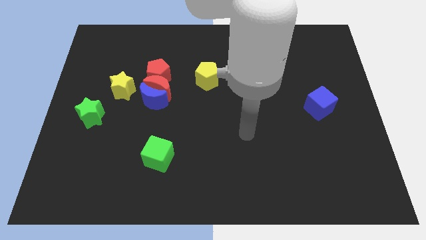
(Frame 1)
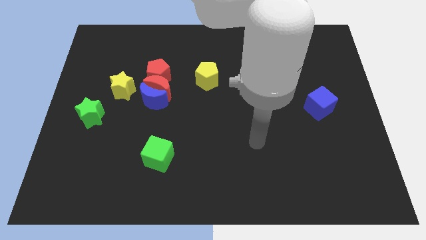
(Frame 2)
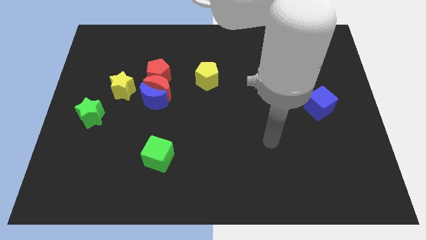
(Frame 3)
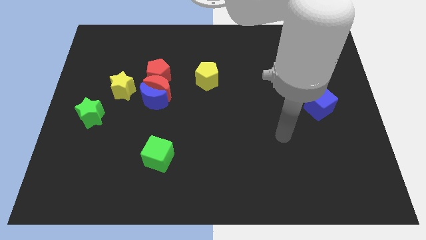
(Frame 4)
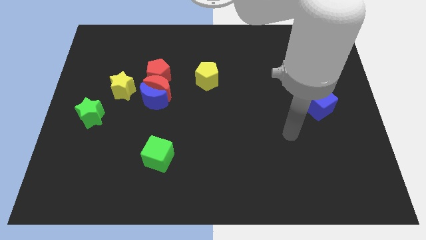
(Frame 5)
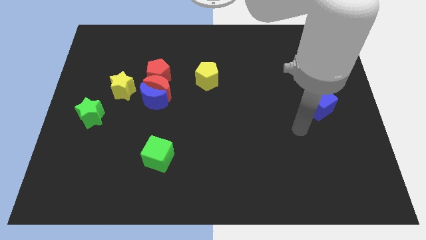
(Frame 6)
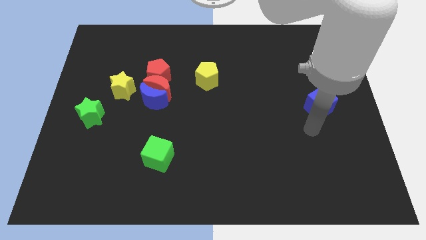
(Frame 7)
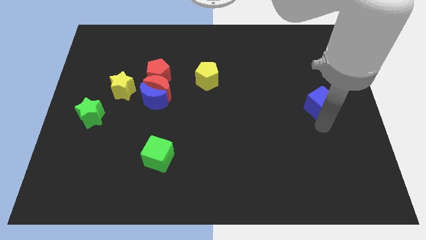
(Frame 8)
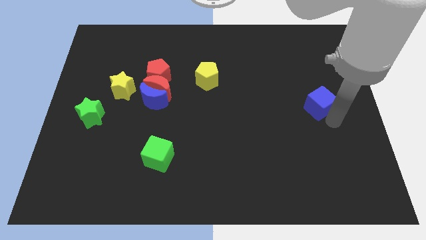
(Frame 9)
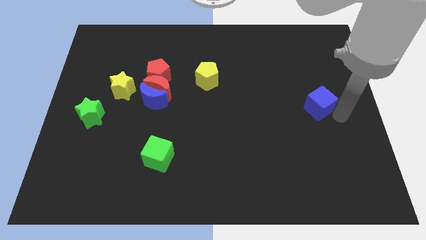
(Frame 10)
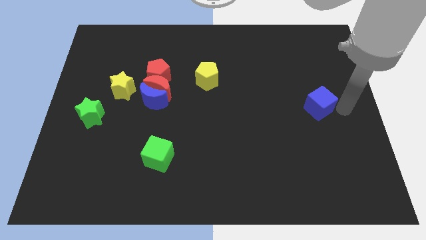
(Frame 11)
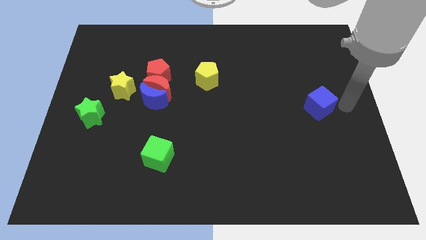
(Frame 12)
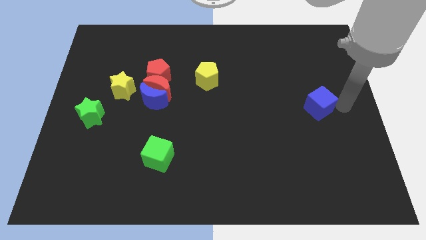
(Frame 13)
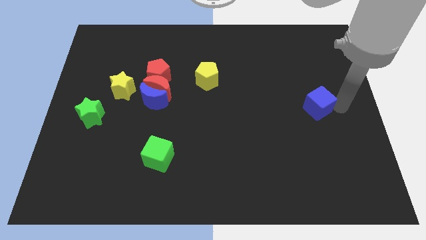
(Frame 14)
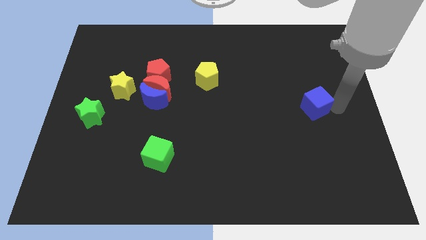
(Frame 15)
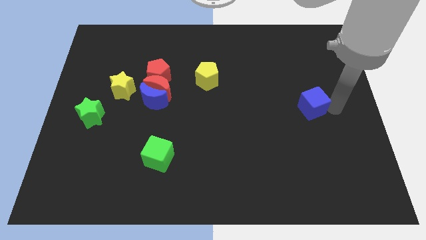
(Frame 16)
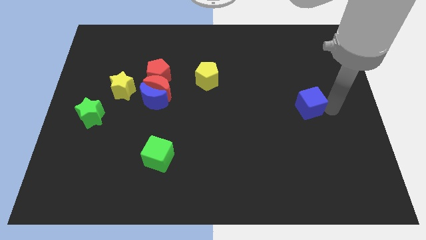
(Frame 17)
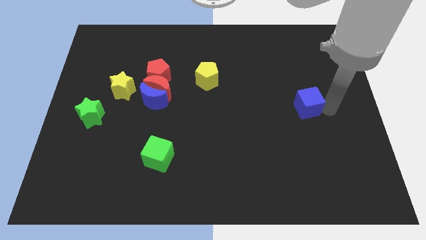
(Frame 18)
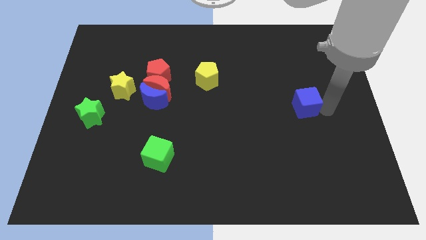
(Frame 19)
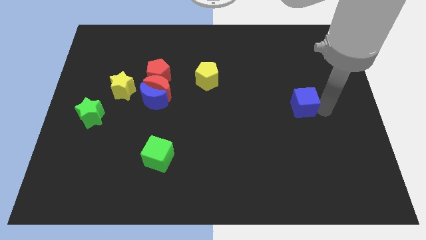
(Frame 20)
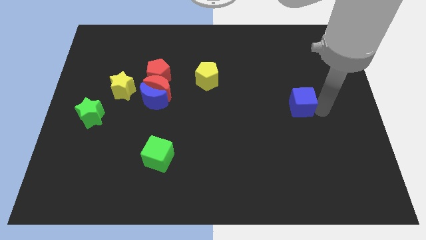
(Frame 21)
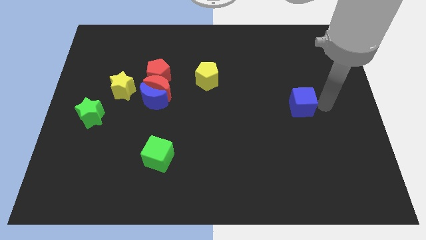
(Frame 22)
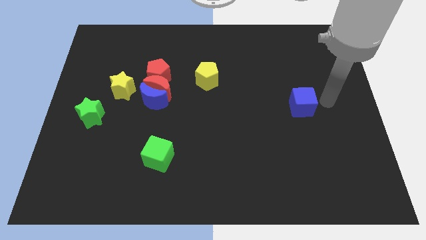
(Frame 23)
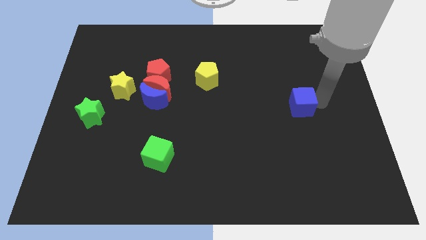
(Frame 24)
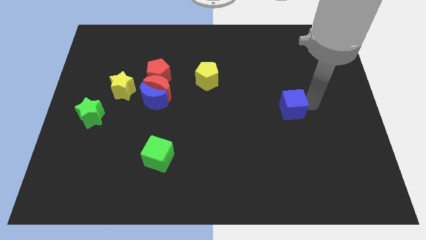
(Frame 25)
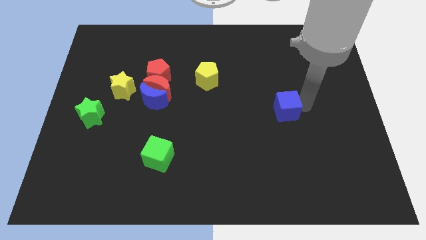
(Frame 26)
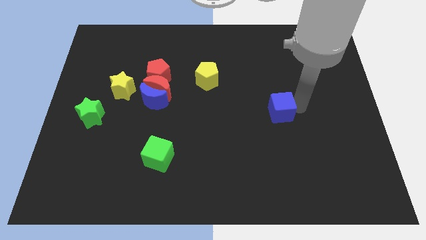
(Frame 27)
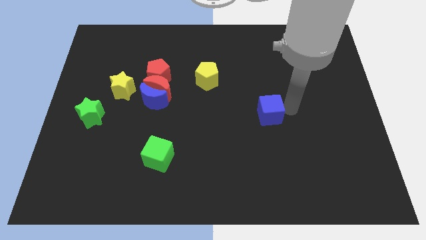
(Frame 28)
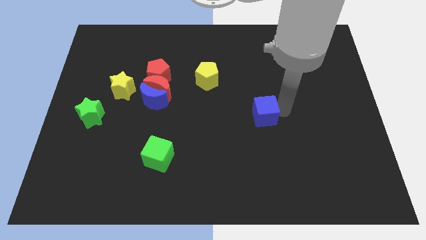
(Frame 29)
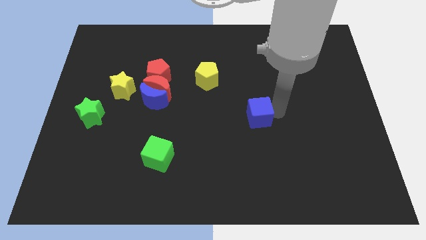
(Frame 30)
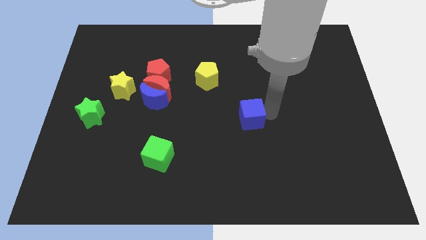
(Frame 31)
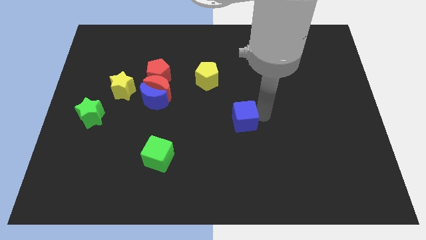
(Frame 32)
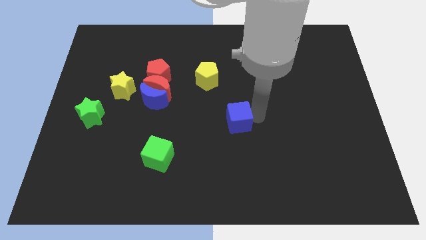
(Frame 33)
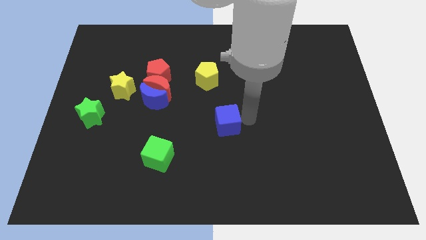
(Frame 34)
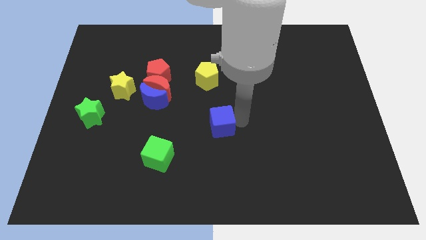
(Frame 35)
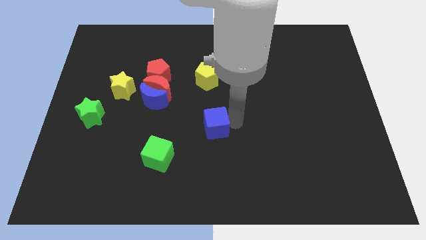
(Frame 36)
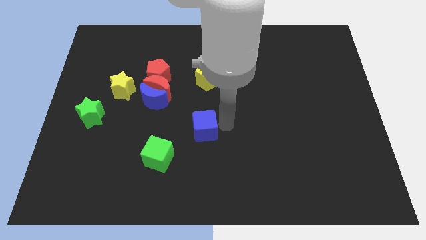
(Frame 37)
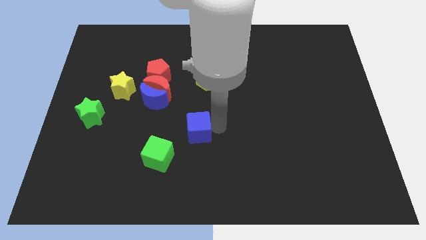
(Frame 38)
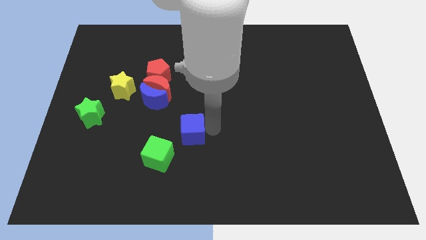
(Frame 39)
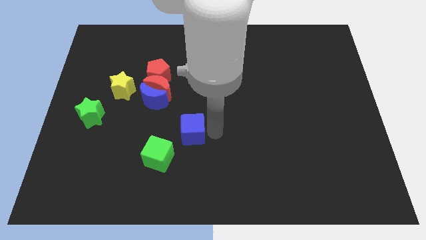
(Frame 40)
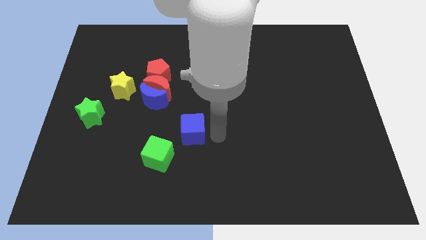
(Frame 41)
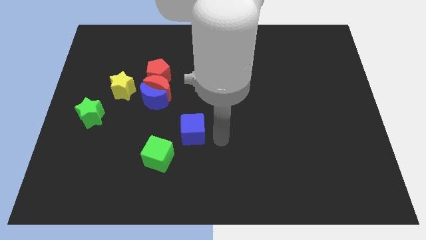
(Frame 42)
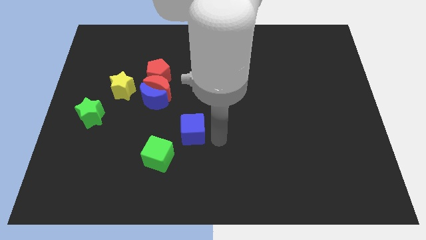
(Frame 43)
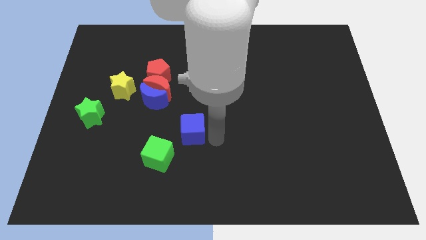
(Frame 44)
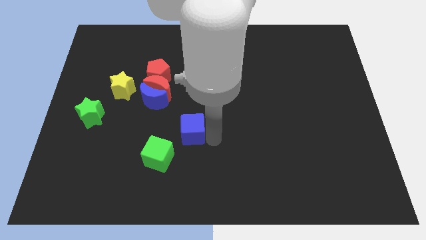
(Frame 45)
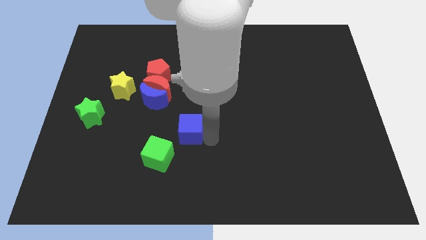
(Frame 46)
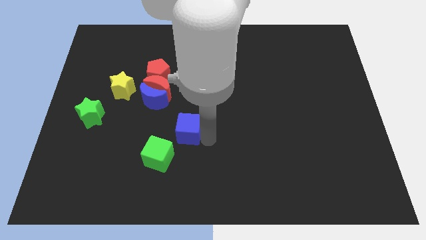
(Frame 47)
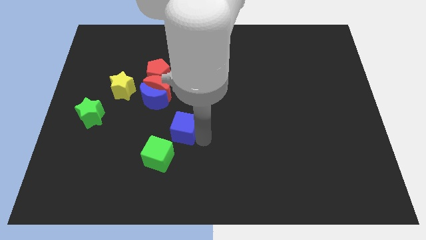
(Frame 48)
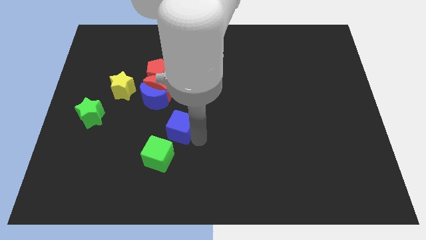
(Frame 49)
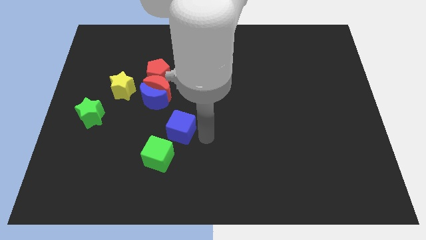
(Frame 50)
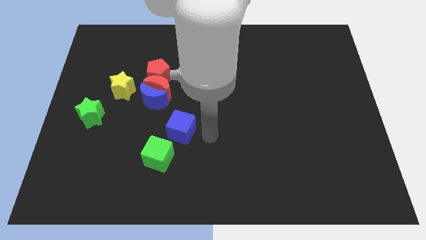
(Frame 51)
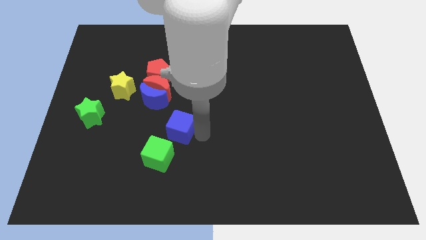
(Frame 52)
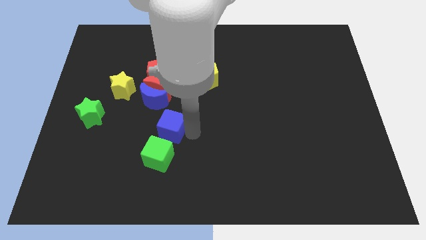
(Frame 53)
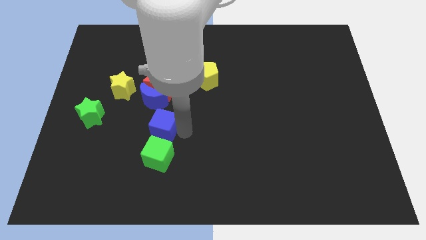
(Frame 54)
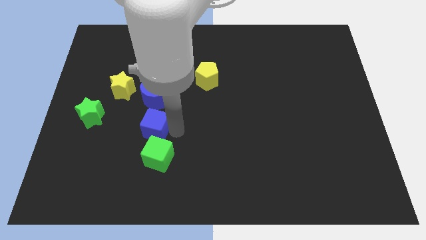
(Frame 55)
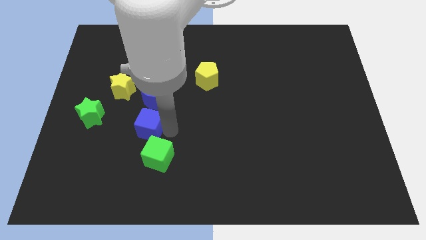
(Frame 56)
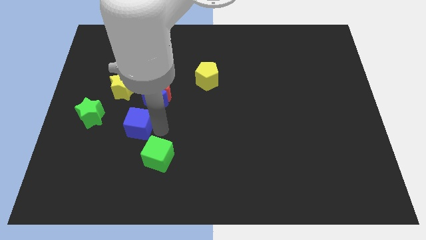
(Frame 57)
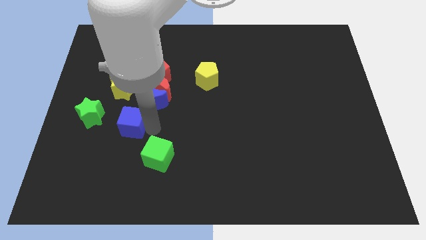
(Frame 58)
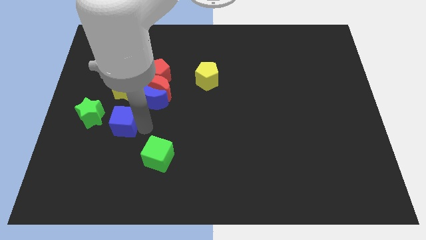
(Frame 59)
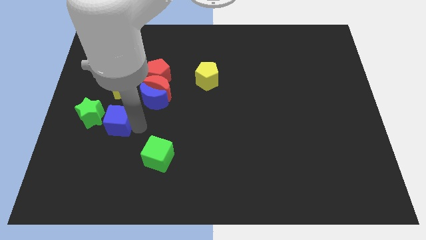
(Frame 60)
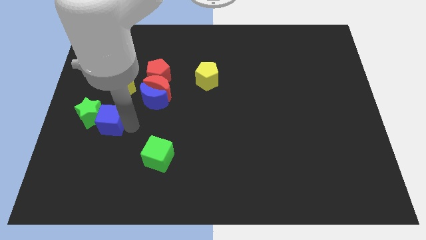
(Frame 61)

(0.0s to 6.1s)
put the blue cube close to the green star

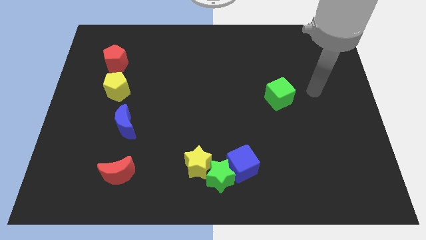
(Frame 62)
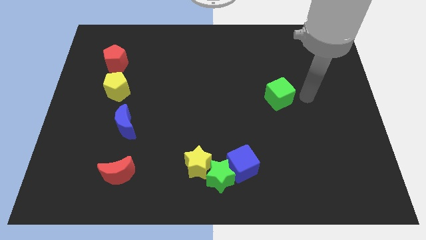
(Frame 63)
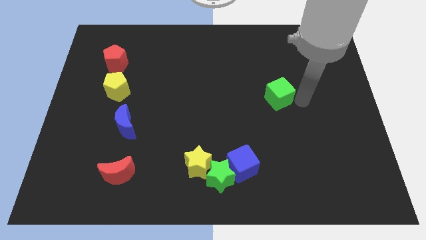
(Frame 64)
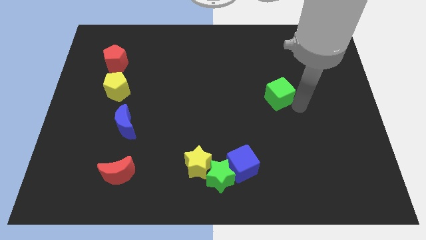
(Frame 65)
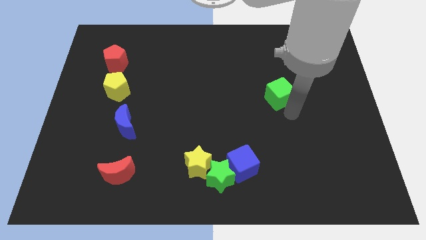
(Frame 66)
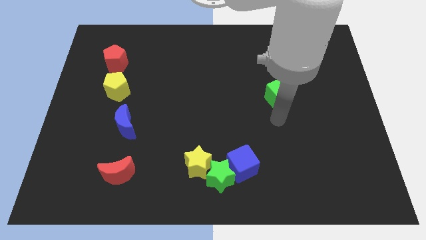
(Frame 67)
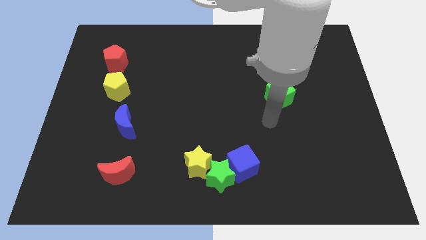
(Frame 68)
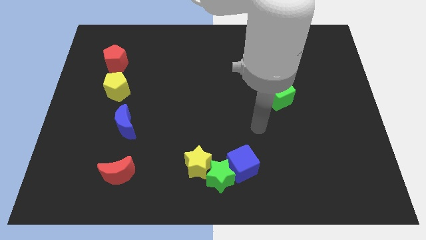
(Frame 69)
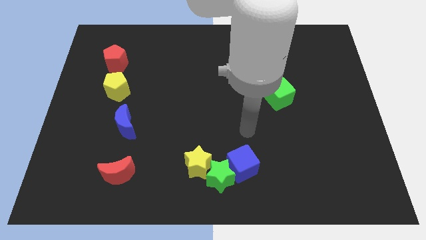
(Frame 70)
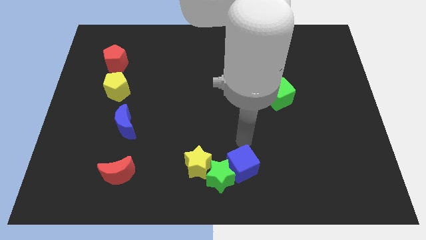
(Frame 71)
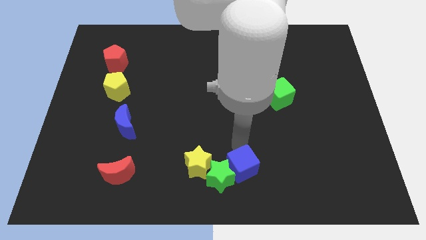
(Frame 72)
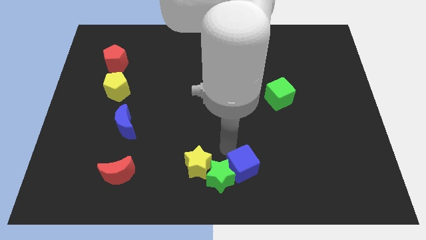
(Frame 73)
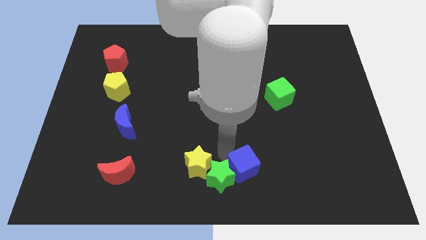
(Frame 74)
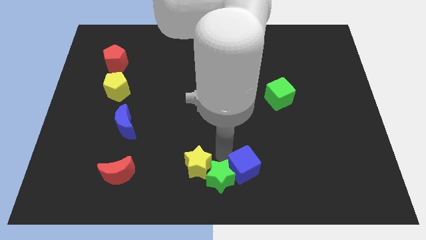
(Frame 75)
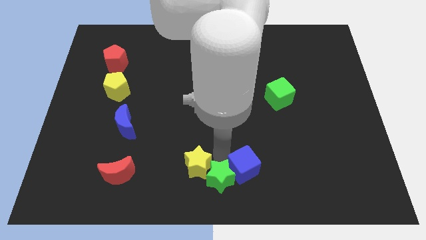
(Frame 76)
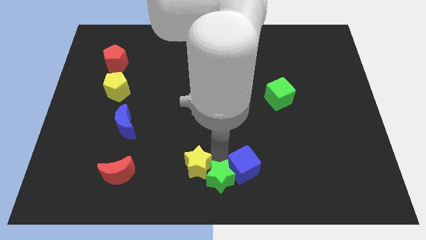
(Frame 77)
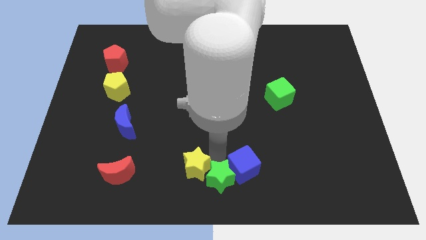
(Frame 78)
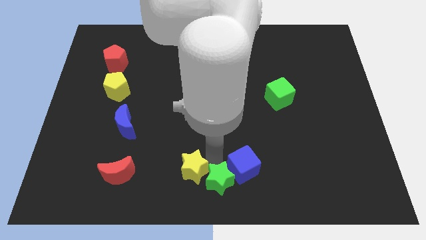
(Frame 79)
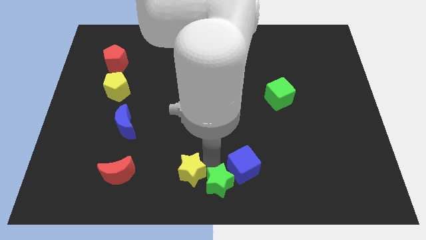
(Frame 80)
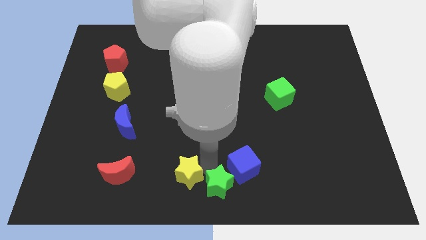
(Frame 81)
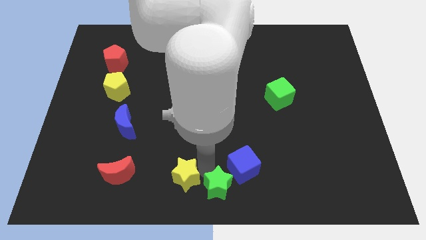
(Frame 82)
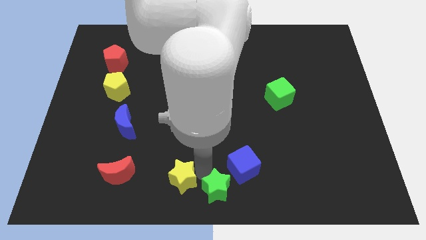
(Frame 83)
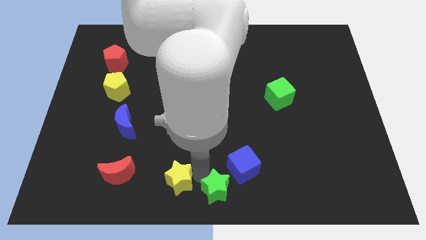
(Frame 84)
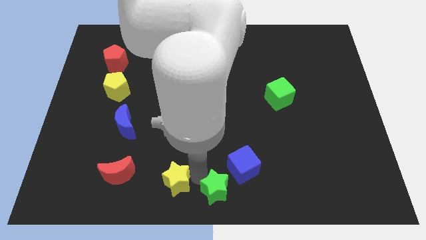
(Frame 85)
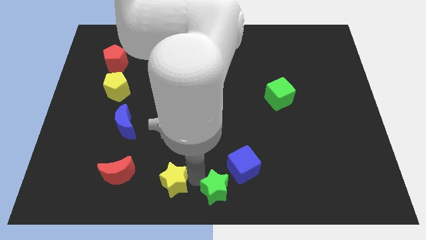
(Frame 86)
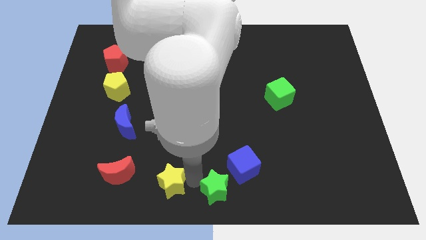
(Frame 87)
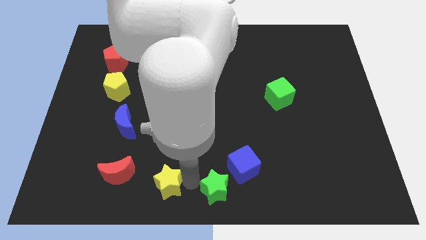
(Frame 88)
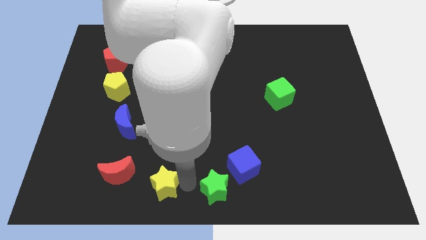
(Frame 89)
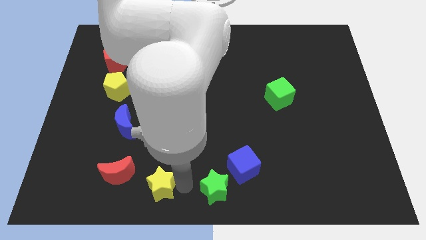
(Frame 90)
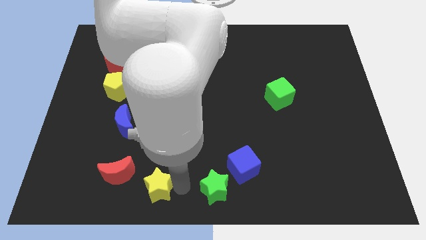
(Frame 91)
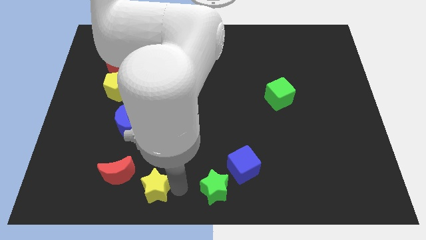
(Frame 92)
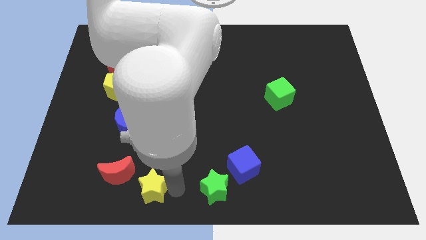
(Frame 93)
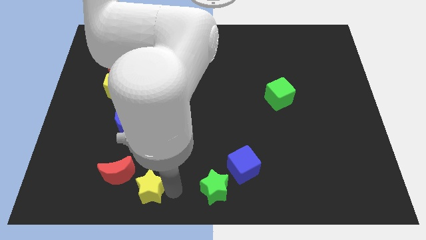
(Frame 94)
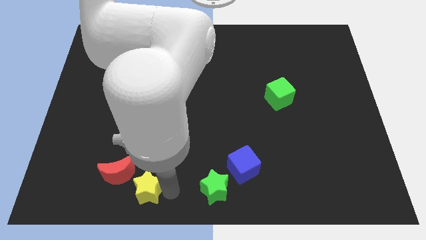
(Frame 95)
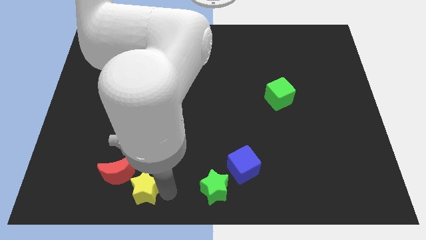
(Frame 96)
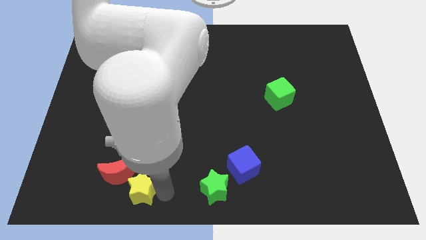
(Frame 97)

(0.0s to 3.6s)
move the yellow star next to the red moon
